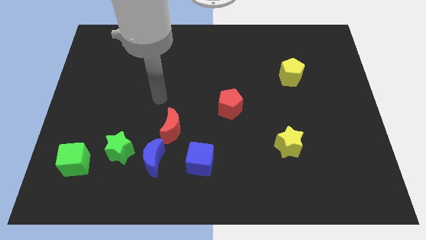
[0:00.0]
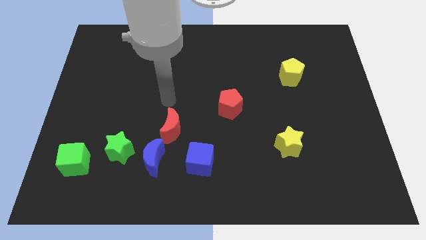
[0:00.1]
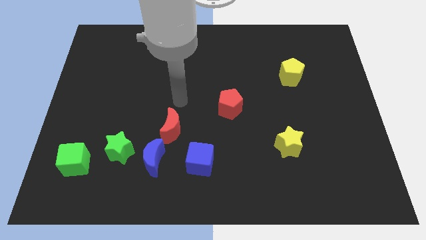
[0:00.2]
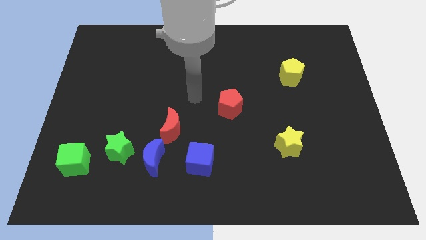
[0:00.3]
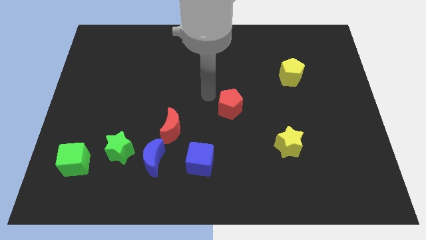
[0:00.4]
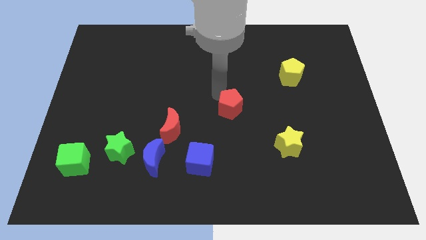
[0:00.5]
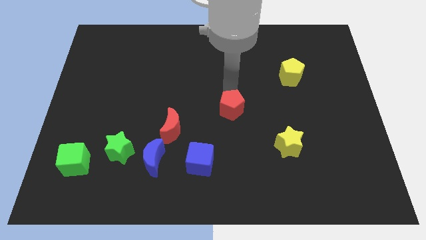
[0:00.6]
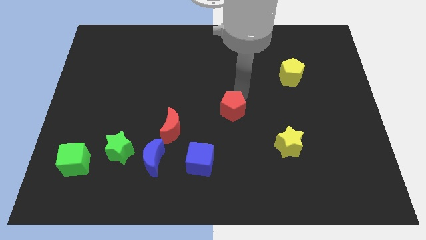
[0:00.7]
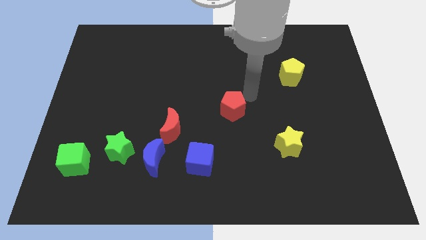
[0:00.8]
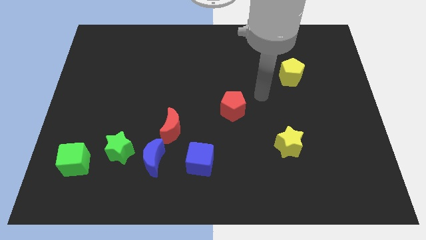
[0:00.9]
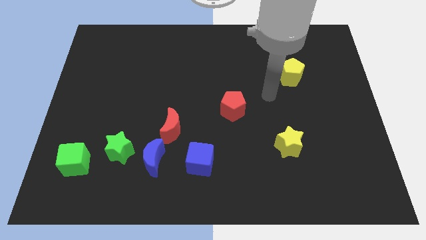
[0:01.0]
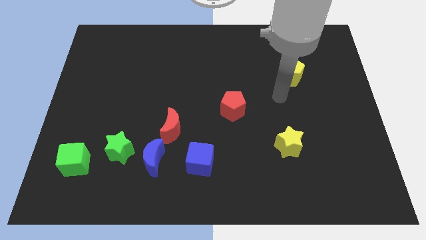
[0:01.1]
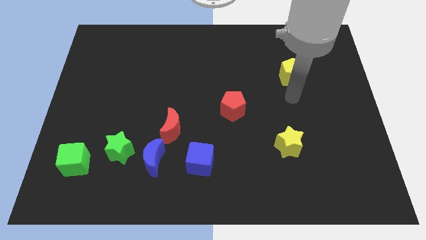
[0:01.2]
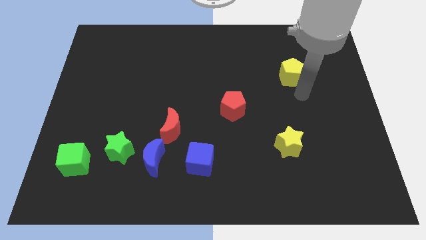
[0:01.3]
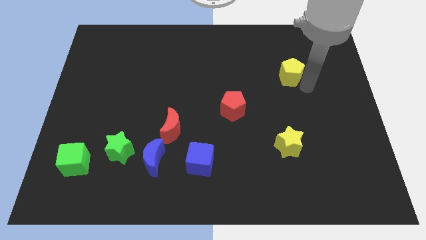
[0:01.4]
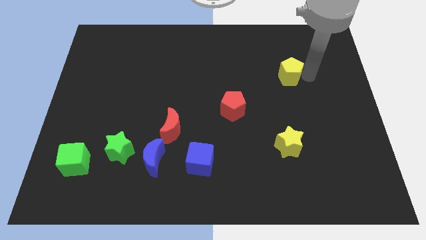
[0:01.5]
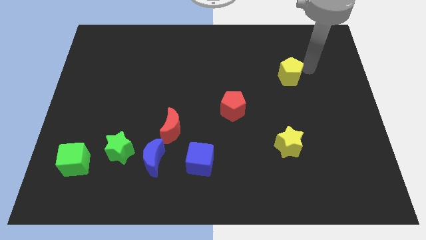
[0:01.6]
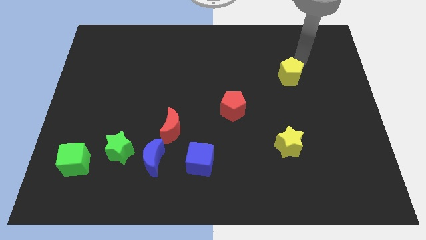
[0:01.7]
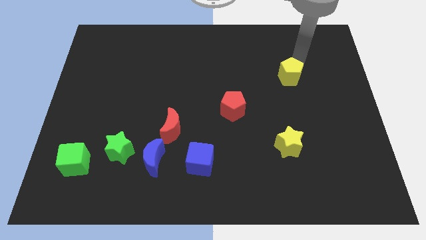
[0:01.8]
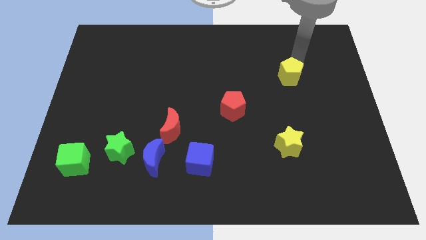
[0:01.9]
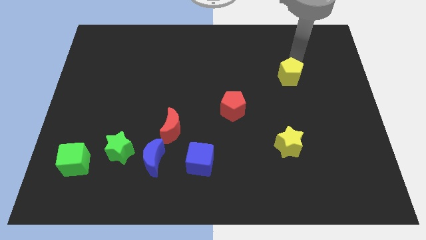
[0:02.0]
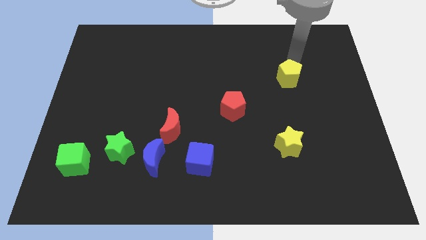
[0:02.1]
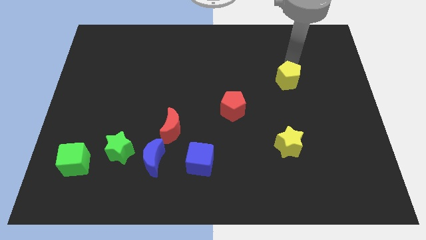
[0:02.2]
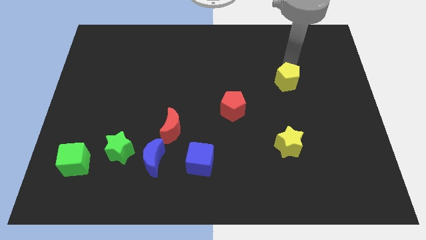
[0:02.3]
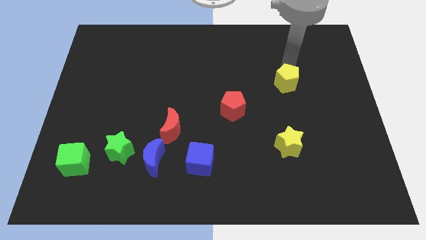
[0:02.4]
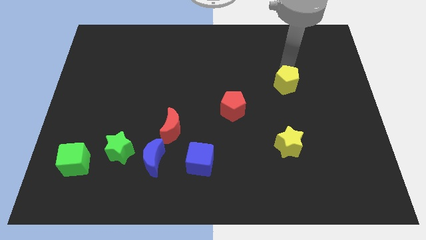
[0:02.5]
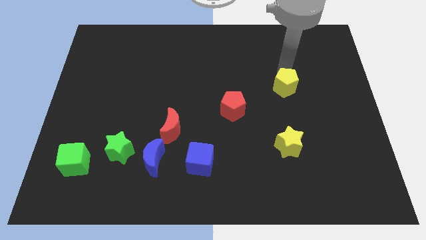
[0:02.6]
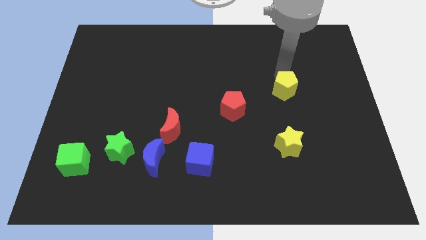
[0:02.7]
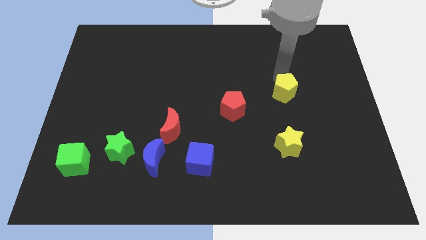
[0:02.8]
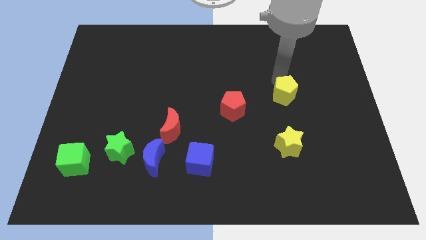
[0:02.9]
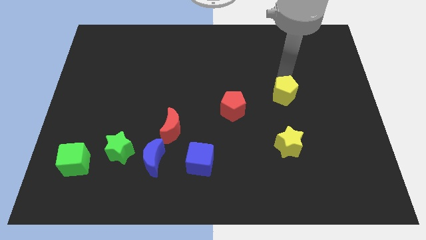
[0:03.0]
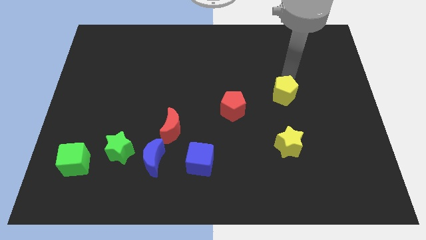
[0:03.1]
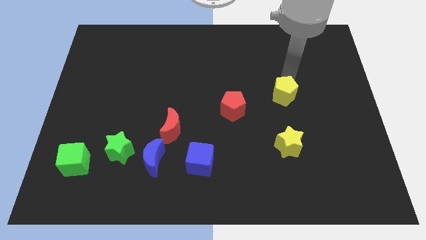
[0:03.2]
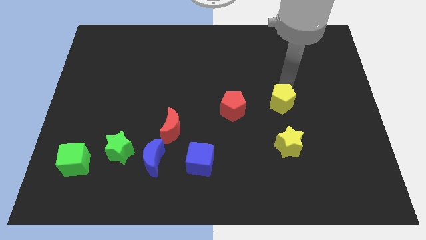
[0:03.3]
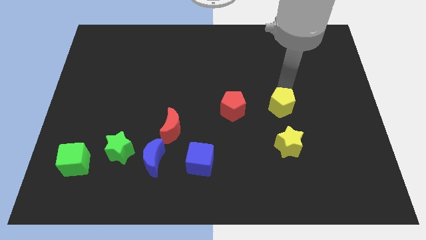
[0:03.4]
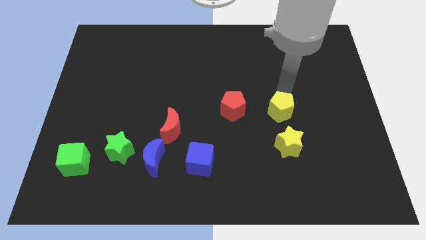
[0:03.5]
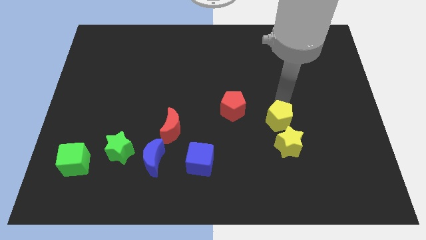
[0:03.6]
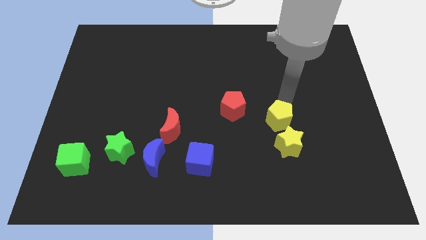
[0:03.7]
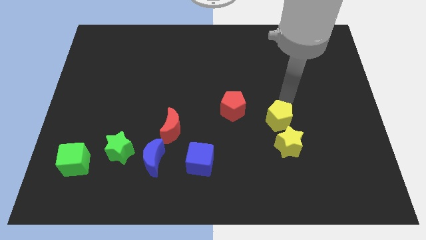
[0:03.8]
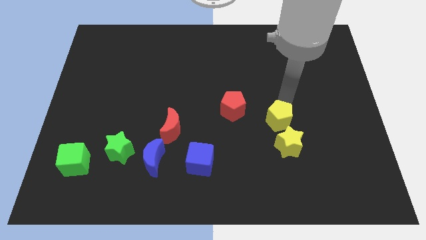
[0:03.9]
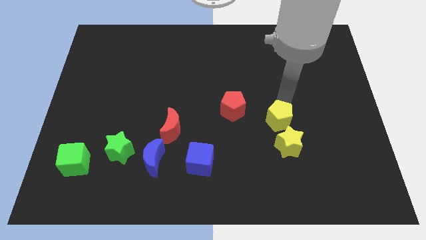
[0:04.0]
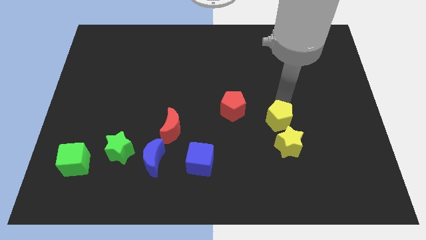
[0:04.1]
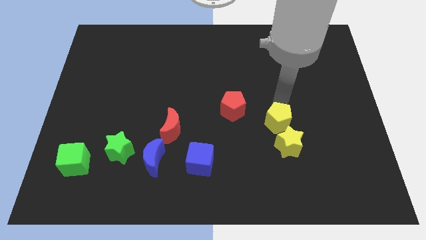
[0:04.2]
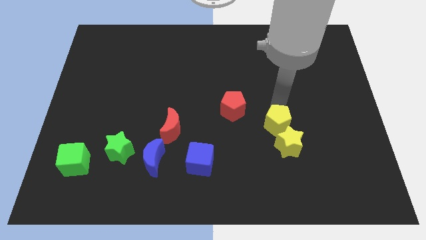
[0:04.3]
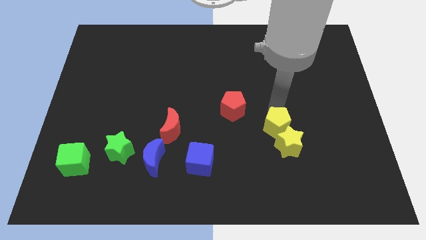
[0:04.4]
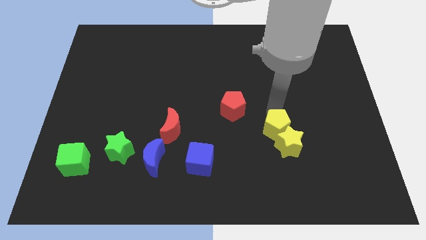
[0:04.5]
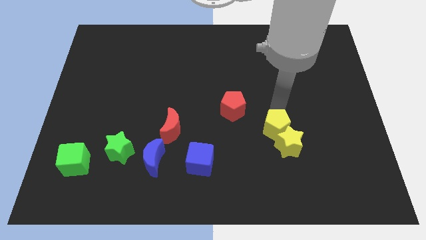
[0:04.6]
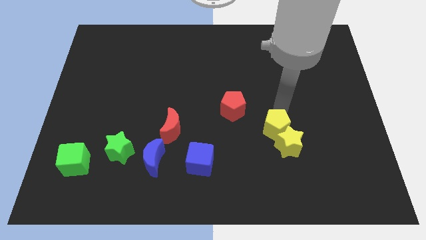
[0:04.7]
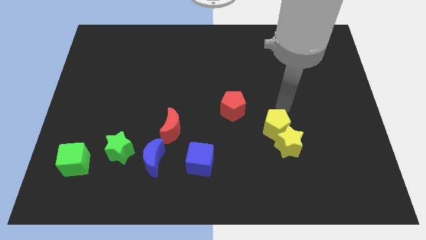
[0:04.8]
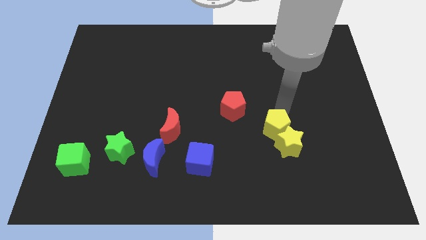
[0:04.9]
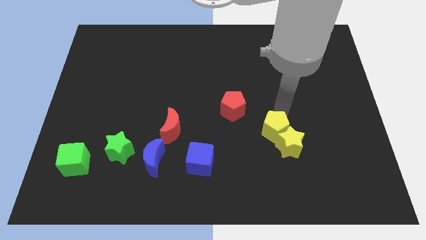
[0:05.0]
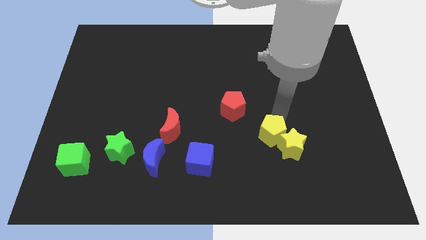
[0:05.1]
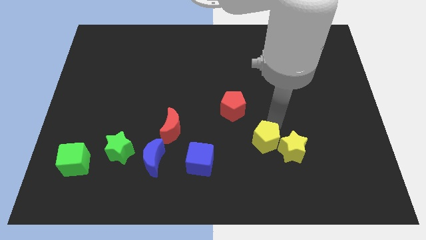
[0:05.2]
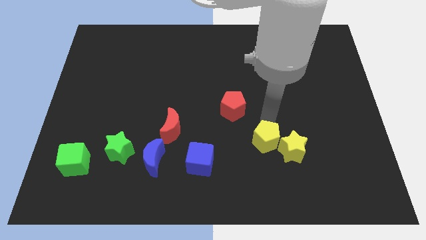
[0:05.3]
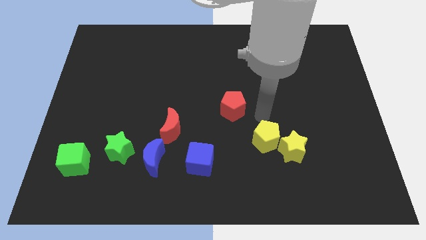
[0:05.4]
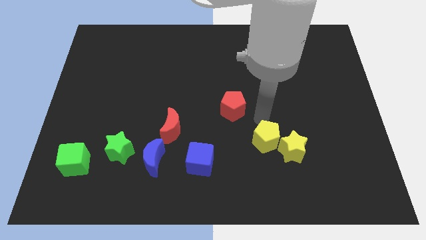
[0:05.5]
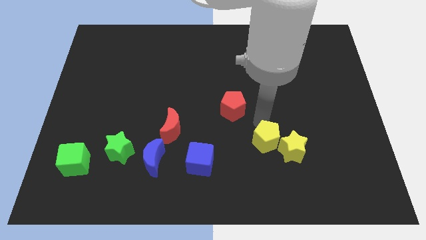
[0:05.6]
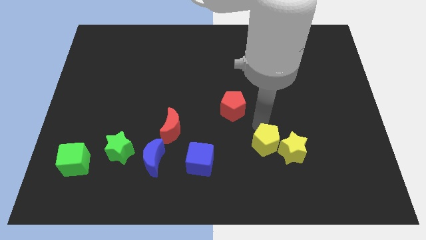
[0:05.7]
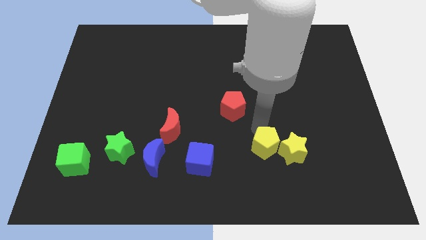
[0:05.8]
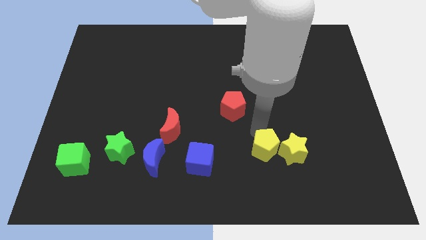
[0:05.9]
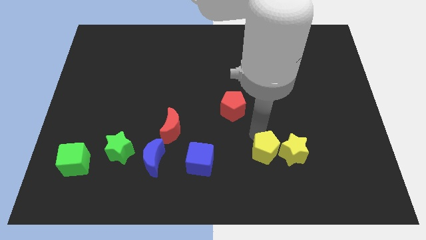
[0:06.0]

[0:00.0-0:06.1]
put the yellow pentagon to the bottom left of the yellow star

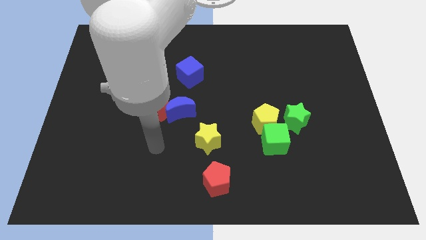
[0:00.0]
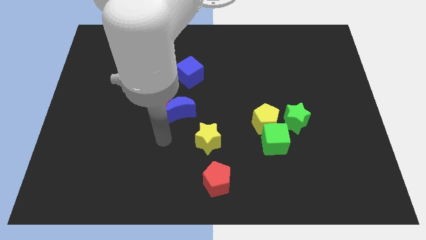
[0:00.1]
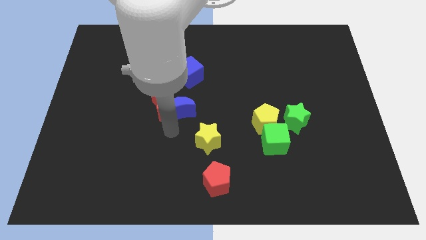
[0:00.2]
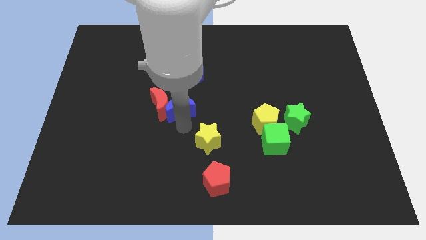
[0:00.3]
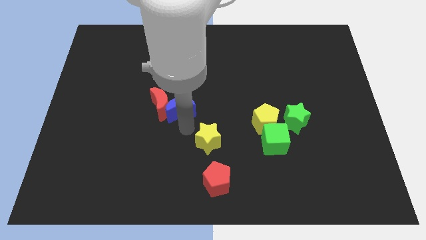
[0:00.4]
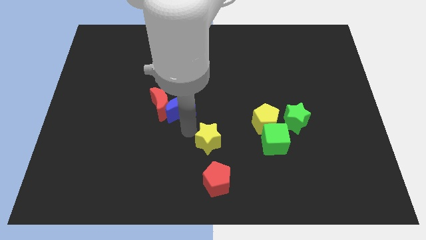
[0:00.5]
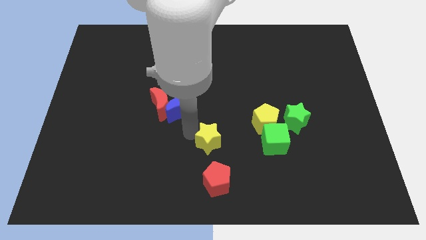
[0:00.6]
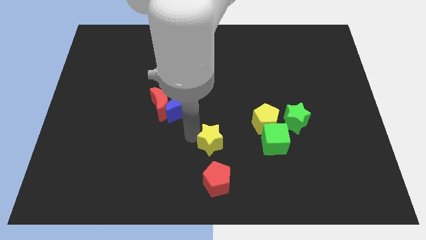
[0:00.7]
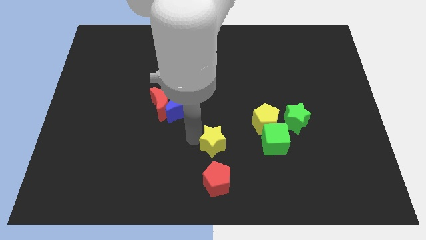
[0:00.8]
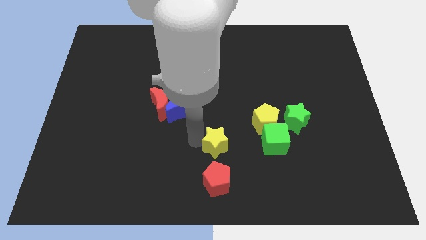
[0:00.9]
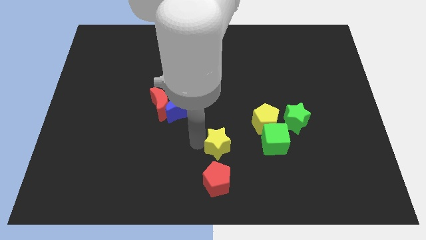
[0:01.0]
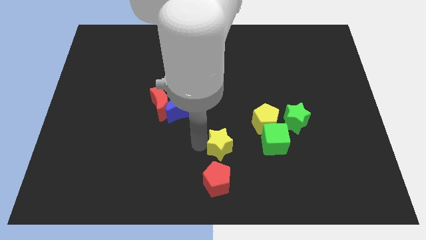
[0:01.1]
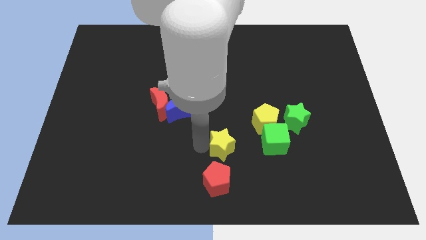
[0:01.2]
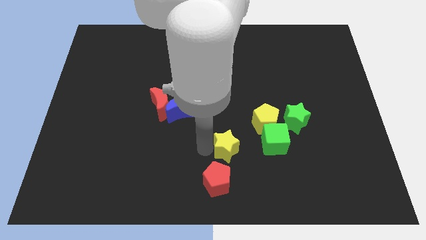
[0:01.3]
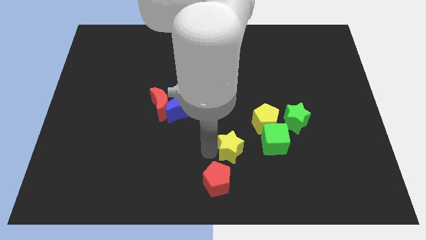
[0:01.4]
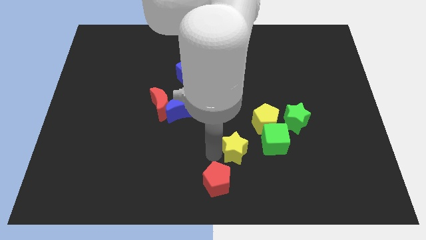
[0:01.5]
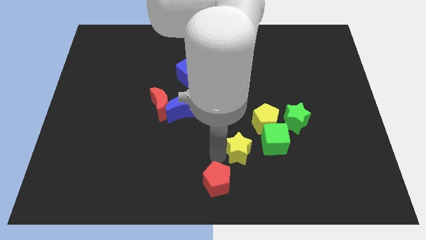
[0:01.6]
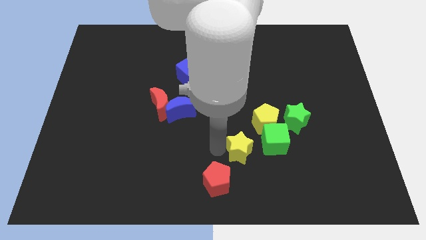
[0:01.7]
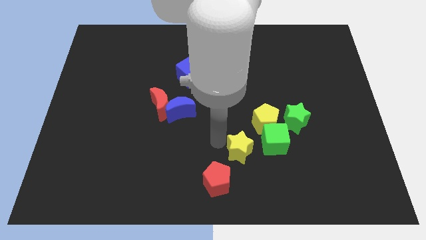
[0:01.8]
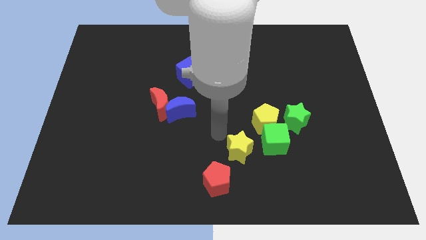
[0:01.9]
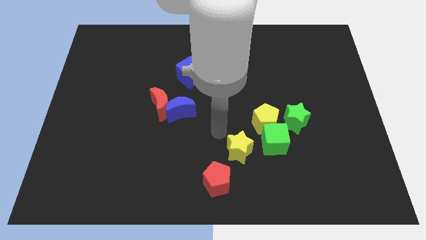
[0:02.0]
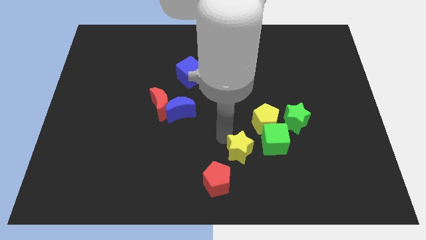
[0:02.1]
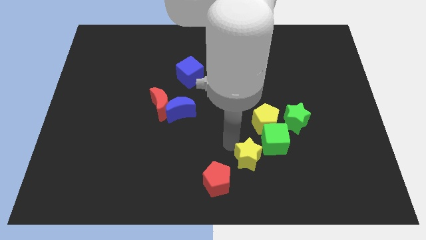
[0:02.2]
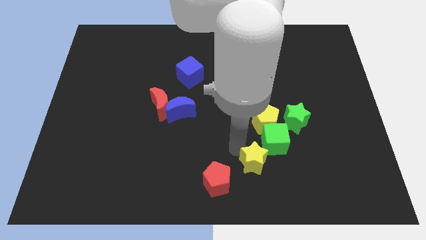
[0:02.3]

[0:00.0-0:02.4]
move the yellow star just right of the red pentagon

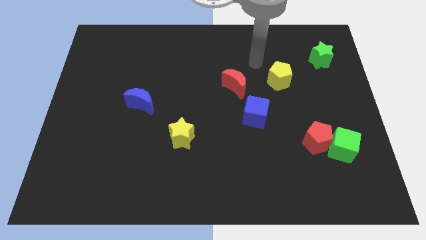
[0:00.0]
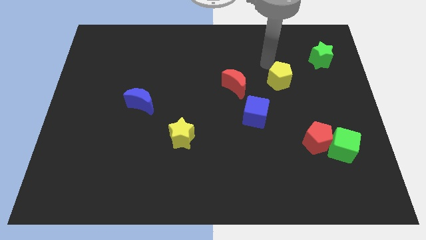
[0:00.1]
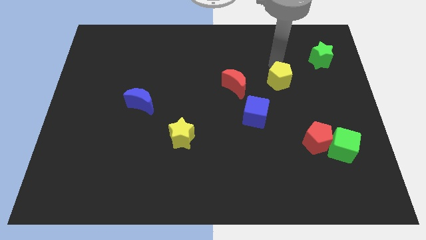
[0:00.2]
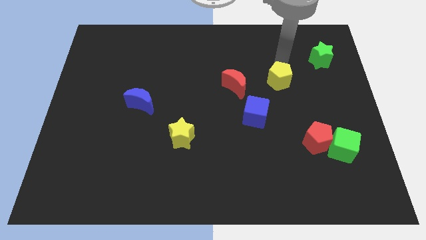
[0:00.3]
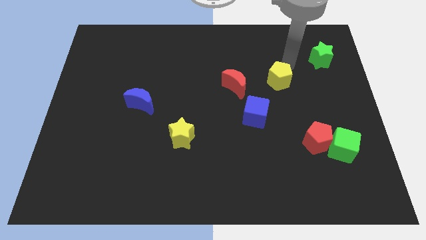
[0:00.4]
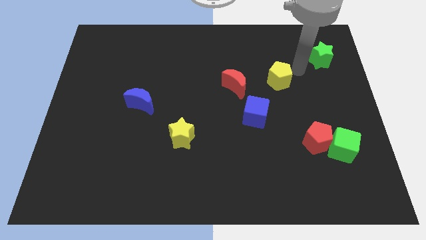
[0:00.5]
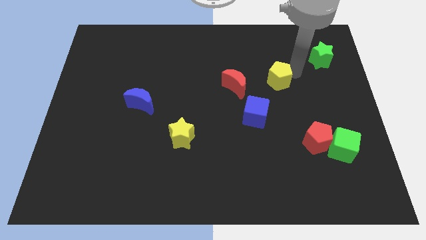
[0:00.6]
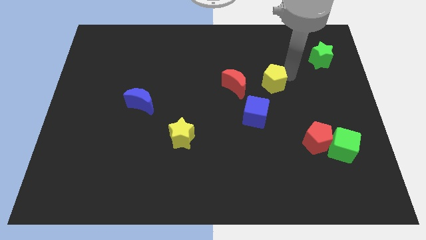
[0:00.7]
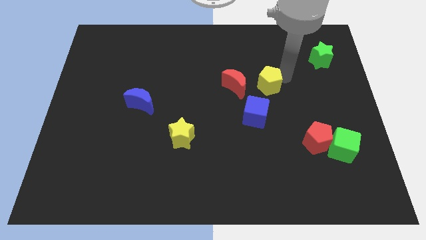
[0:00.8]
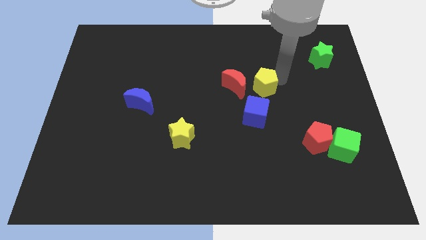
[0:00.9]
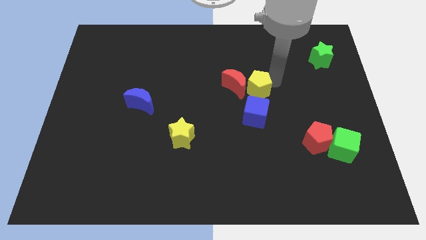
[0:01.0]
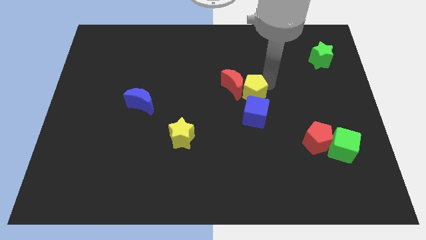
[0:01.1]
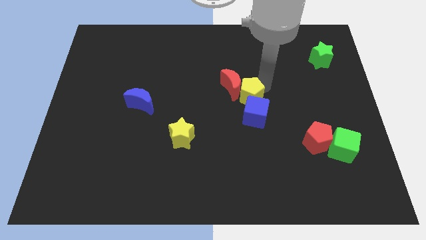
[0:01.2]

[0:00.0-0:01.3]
push the yellow pentagon to the bottom of the red moon
